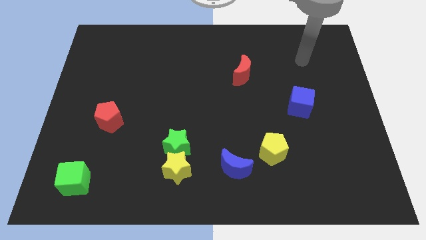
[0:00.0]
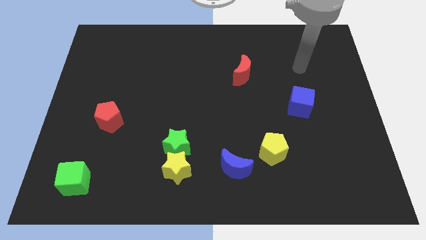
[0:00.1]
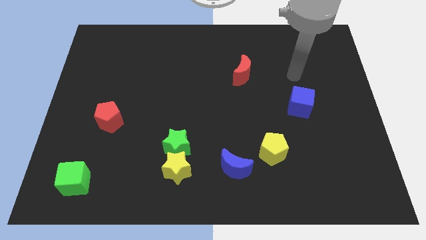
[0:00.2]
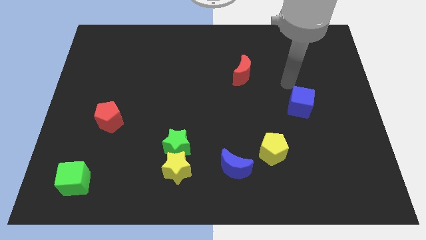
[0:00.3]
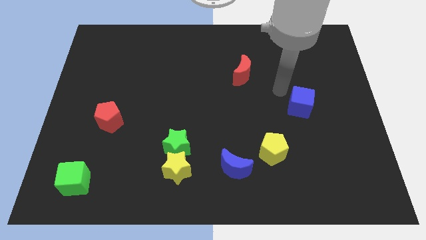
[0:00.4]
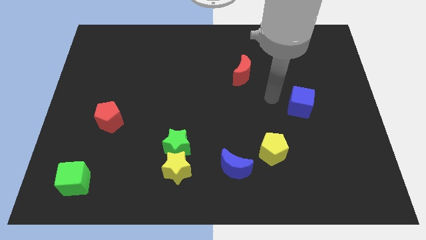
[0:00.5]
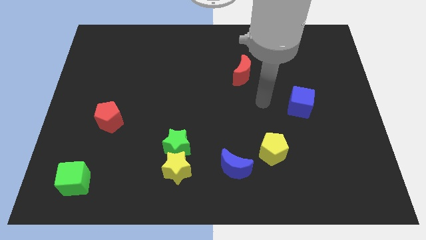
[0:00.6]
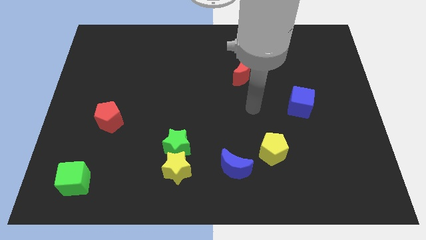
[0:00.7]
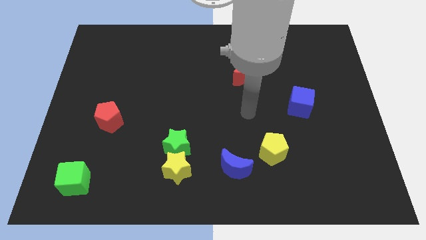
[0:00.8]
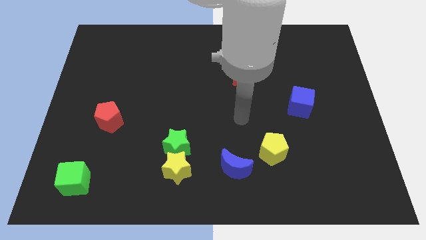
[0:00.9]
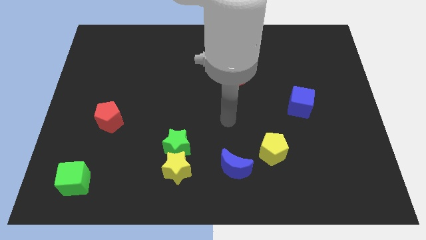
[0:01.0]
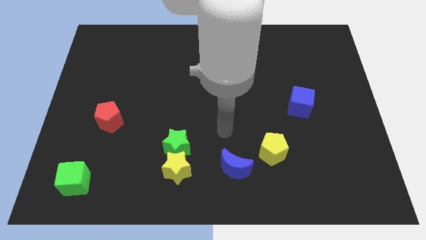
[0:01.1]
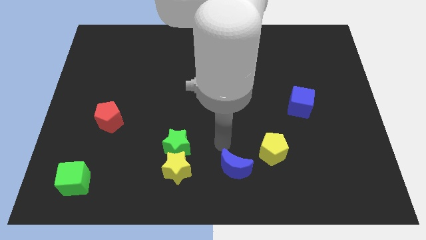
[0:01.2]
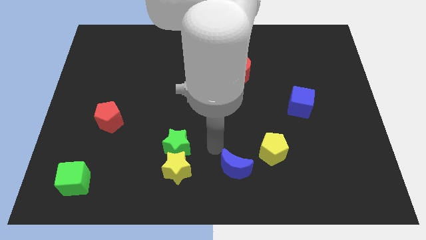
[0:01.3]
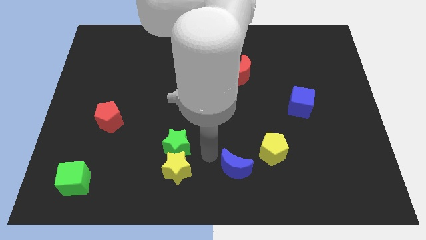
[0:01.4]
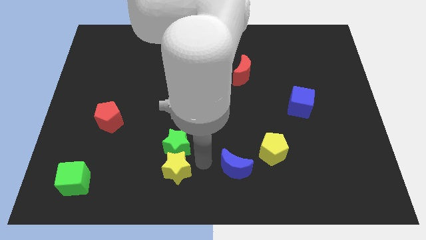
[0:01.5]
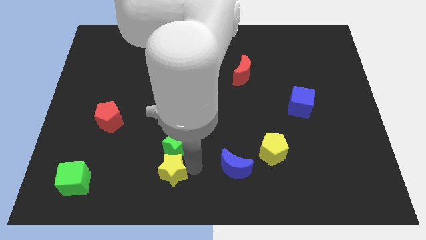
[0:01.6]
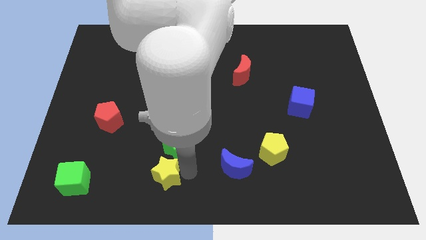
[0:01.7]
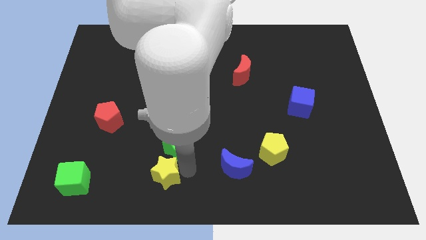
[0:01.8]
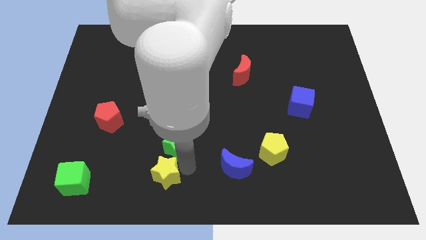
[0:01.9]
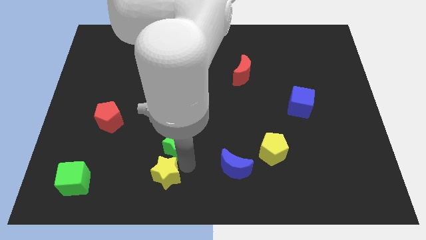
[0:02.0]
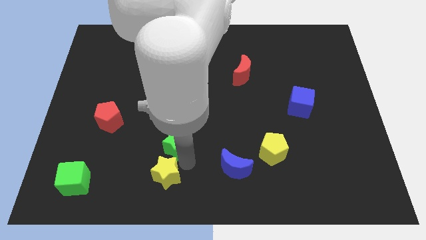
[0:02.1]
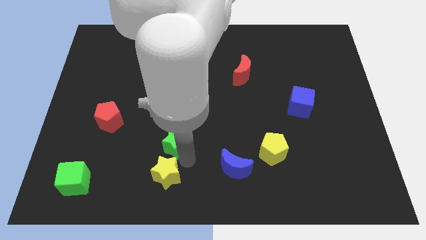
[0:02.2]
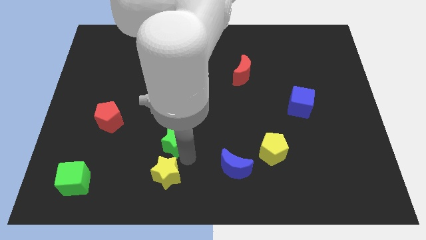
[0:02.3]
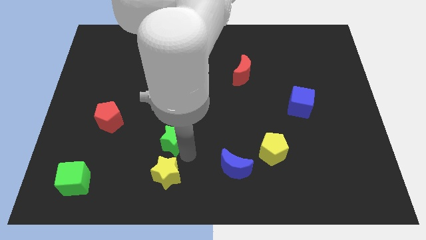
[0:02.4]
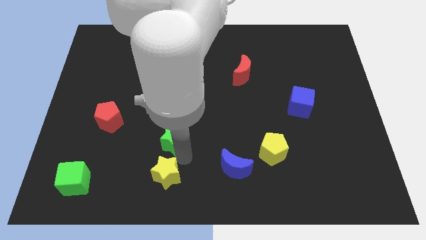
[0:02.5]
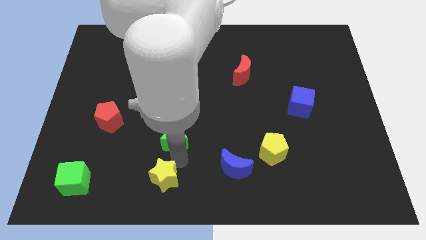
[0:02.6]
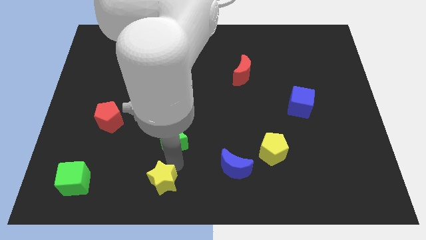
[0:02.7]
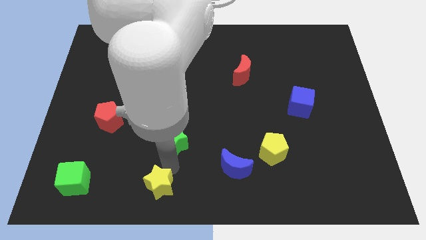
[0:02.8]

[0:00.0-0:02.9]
move the green star away from the yellow star

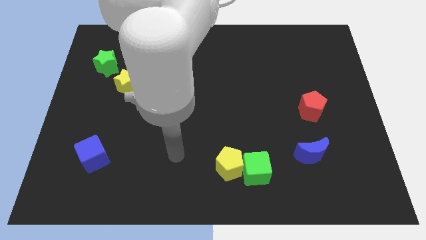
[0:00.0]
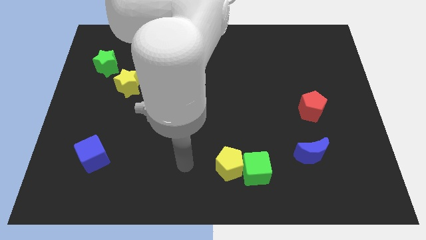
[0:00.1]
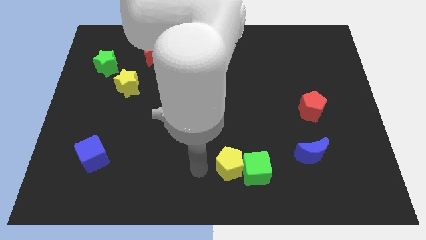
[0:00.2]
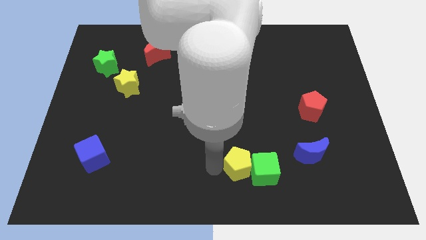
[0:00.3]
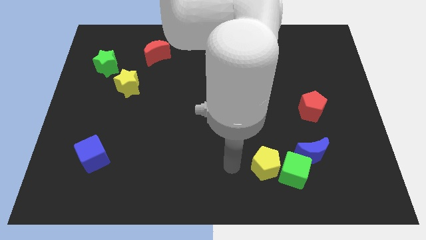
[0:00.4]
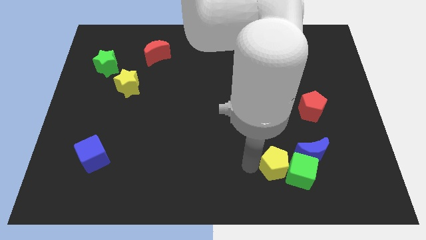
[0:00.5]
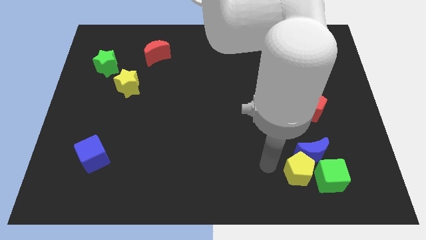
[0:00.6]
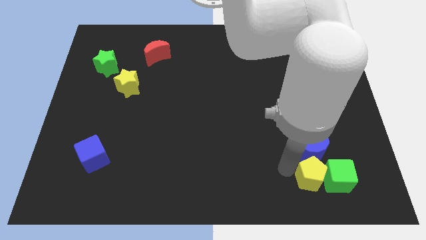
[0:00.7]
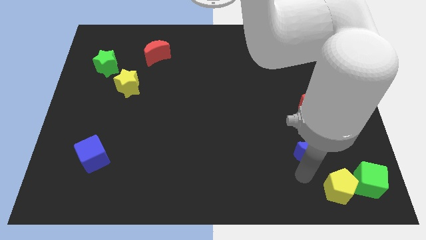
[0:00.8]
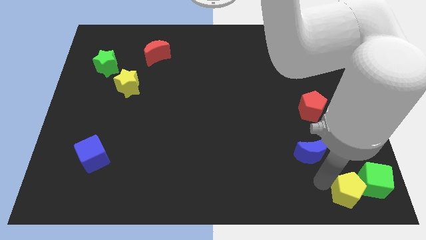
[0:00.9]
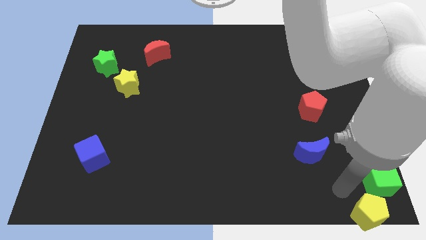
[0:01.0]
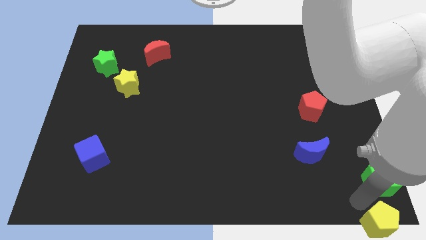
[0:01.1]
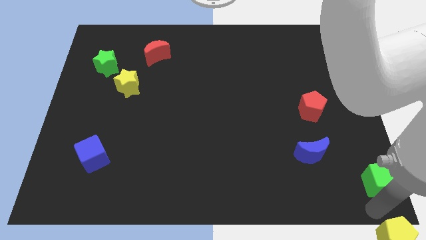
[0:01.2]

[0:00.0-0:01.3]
separate the green cube from the yellow pentagon

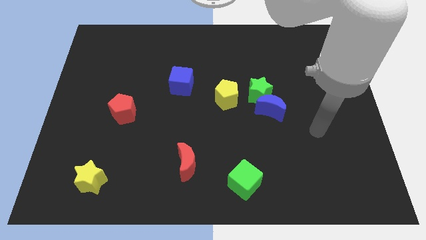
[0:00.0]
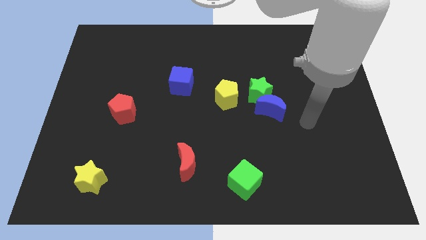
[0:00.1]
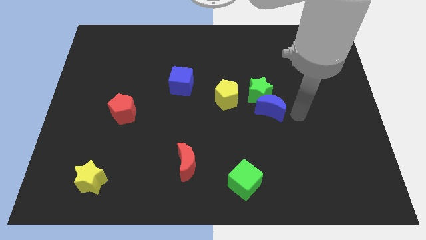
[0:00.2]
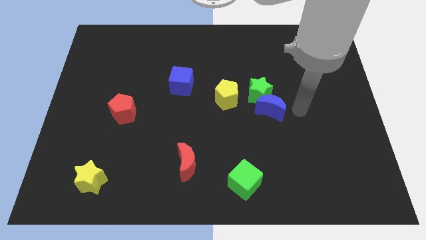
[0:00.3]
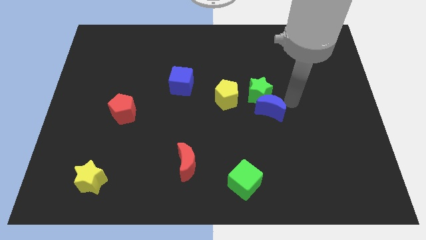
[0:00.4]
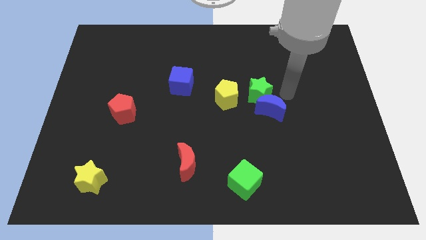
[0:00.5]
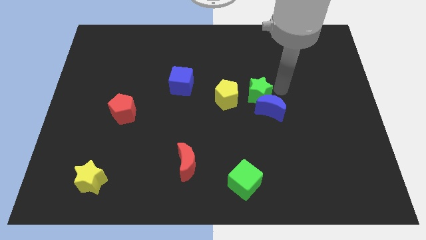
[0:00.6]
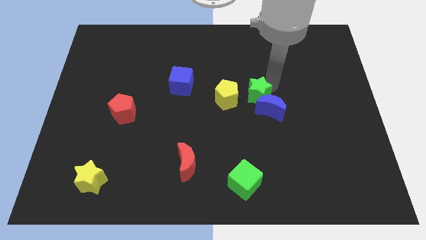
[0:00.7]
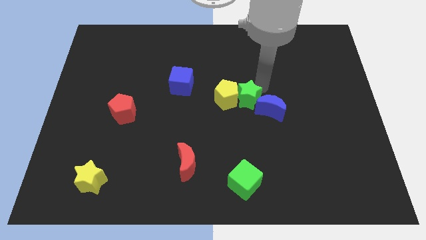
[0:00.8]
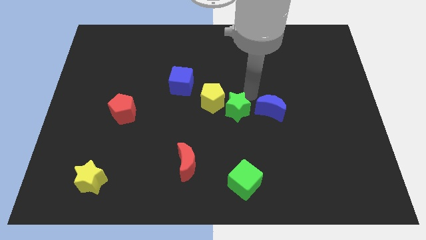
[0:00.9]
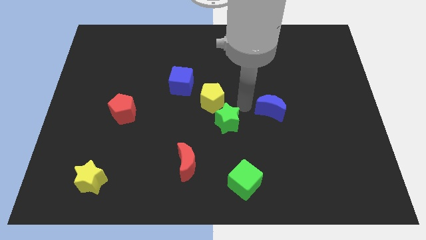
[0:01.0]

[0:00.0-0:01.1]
move the blue moon away from the green star

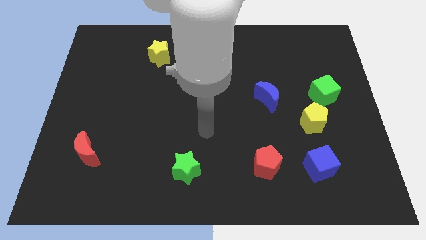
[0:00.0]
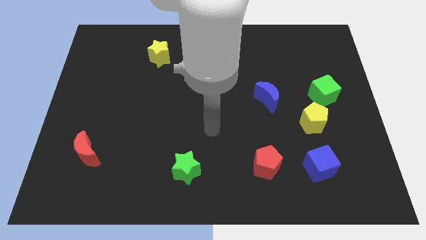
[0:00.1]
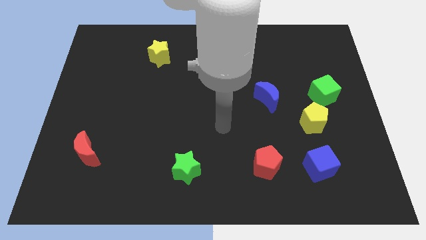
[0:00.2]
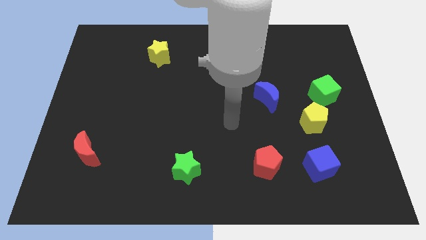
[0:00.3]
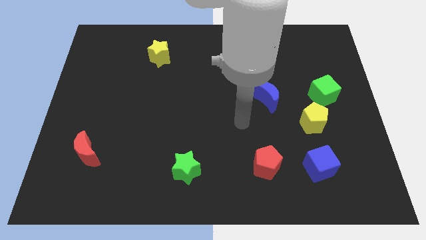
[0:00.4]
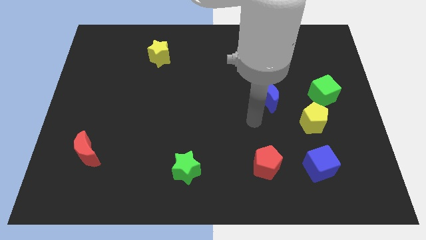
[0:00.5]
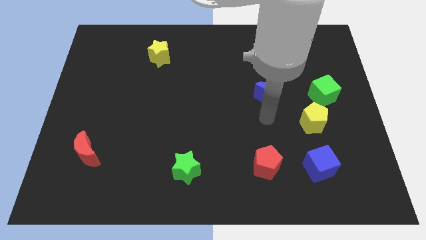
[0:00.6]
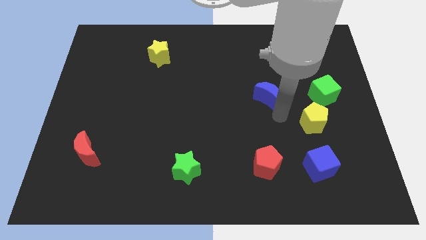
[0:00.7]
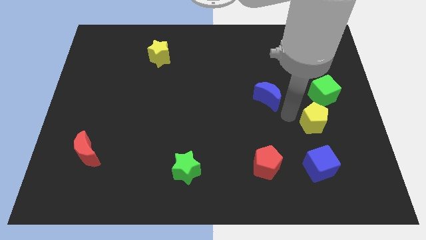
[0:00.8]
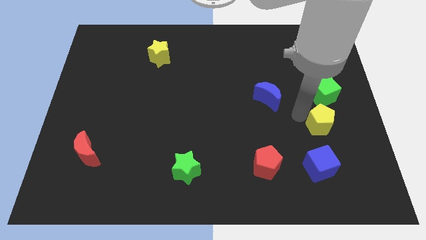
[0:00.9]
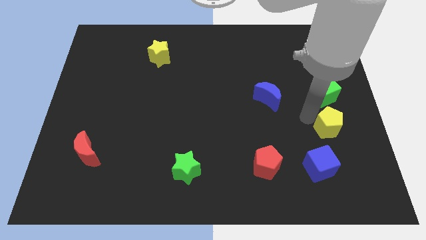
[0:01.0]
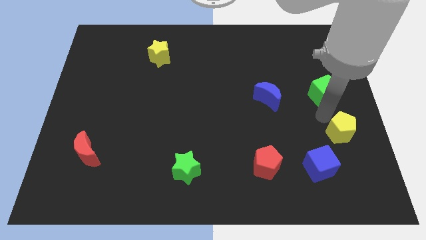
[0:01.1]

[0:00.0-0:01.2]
pull the green cube apart from the yellow pentagon

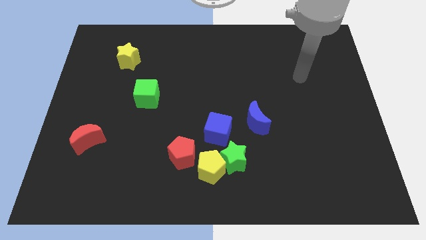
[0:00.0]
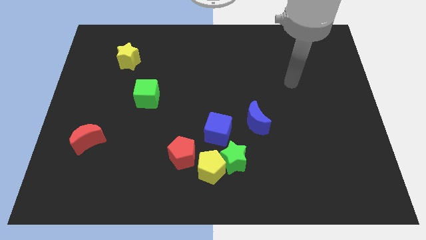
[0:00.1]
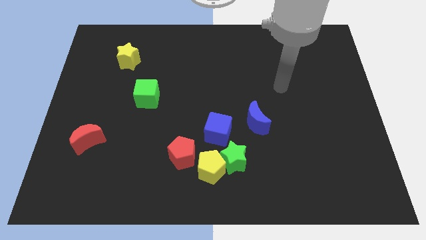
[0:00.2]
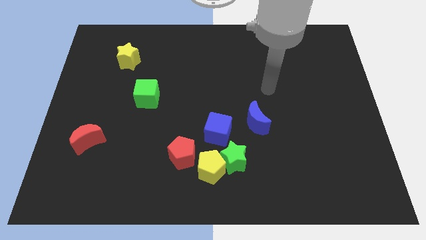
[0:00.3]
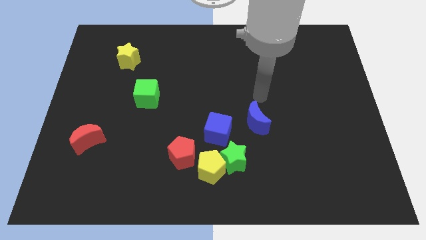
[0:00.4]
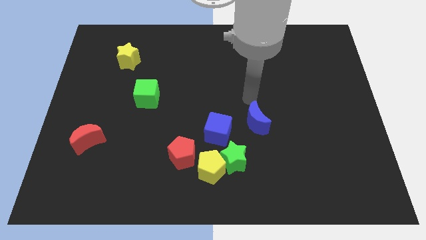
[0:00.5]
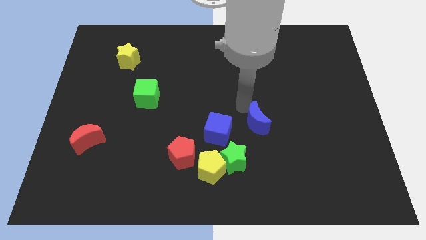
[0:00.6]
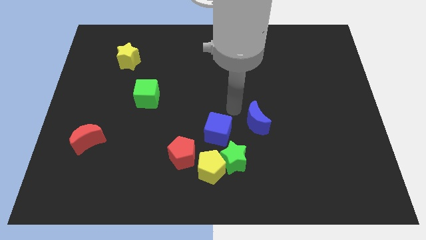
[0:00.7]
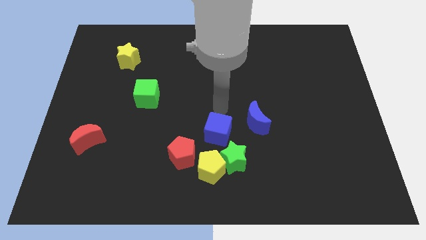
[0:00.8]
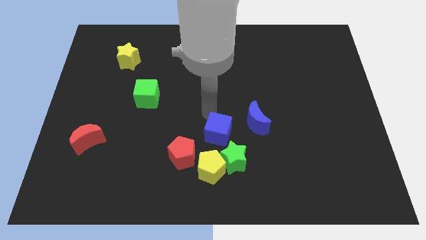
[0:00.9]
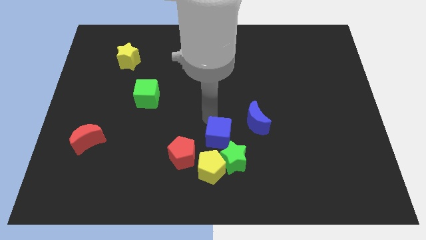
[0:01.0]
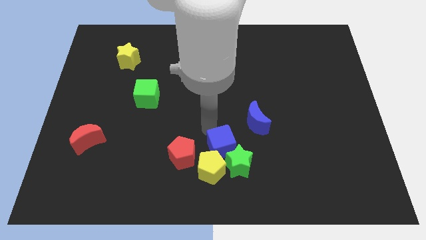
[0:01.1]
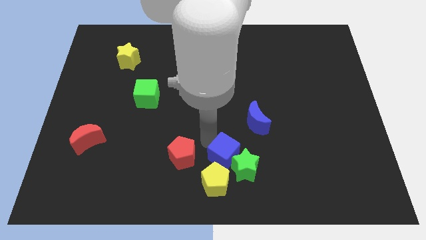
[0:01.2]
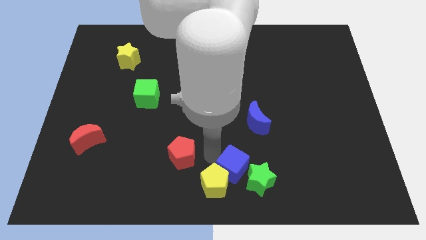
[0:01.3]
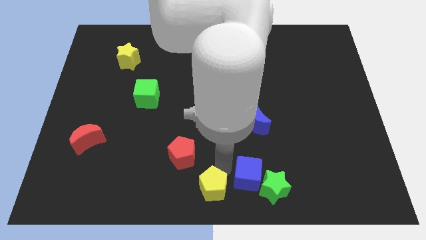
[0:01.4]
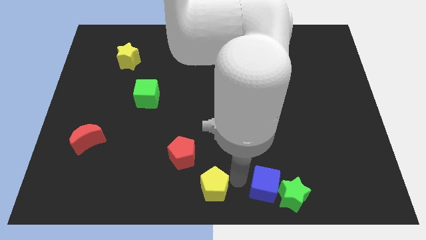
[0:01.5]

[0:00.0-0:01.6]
separate the green star from the yellow pentagon and blue cube

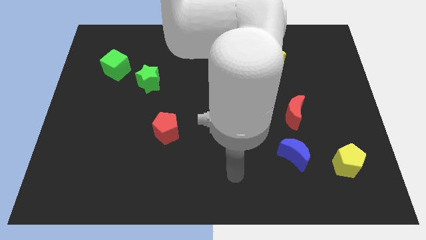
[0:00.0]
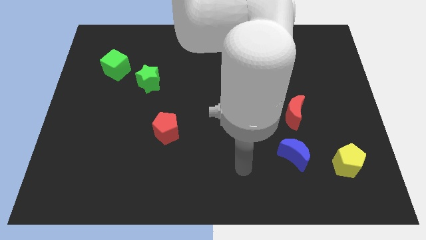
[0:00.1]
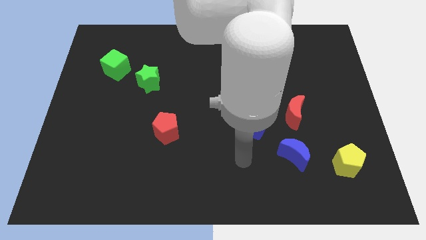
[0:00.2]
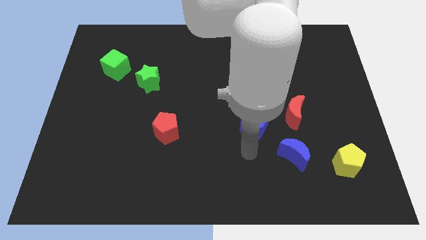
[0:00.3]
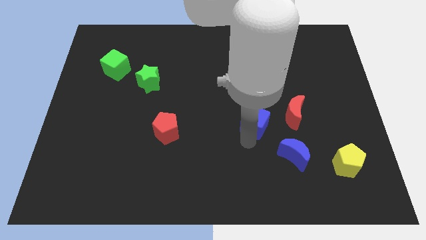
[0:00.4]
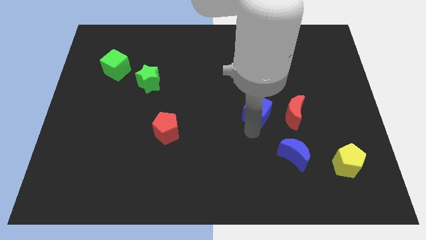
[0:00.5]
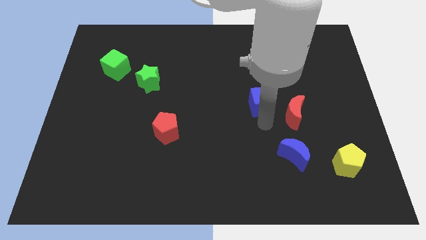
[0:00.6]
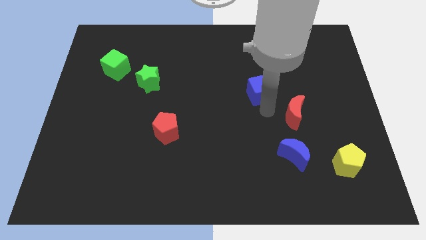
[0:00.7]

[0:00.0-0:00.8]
pull the red moon apart from the blue cube

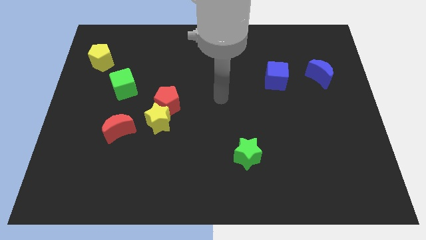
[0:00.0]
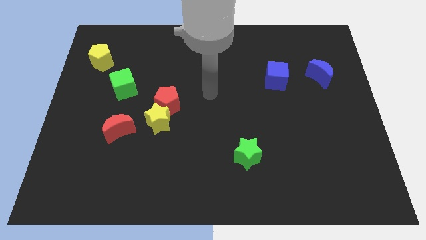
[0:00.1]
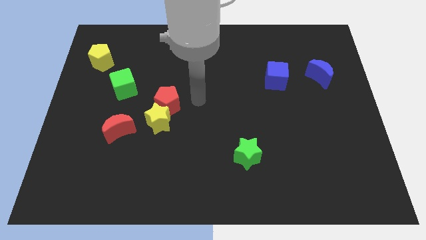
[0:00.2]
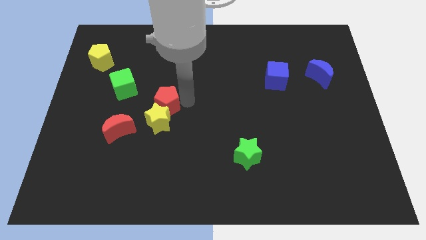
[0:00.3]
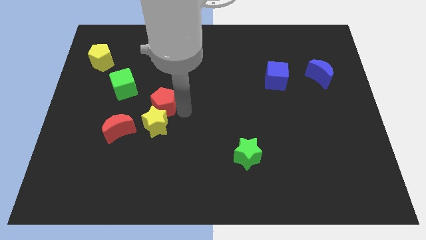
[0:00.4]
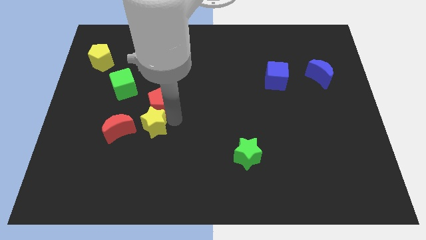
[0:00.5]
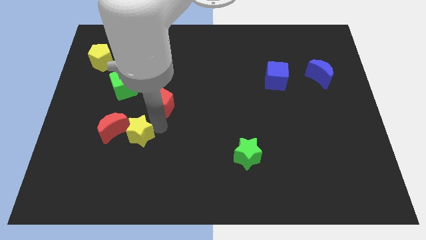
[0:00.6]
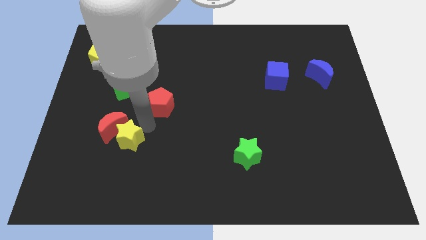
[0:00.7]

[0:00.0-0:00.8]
move the red pentagon away from the yellow star
